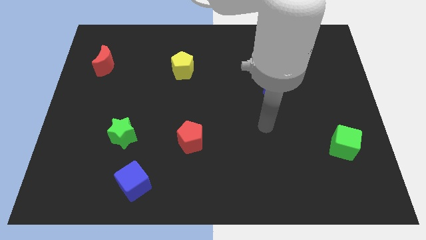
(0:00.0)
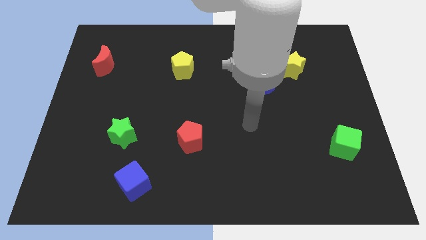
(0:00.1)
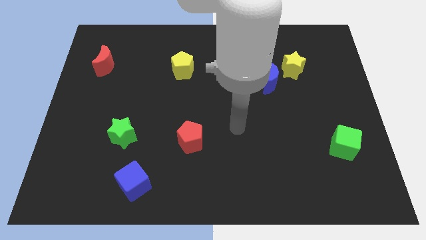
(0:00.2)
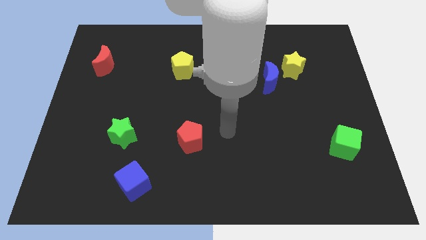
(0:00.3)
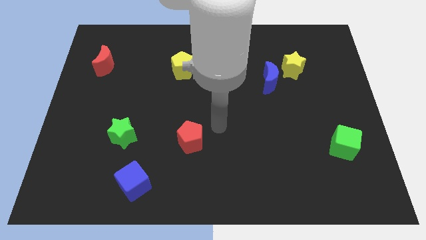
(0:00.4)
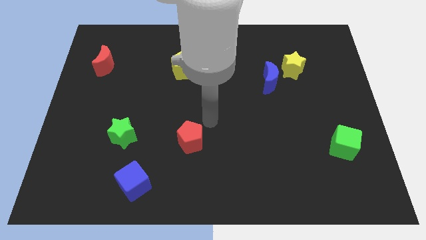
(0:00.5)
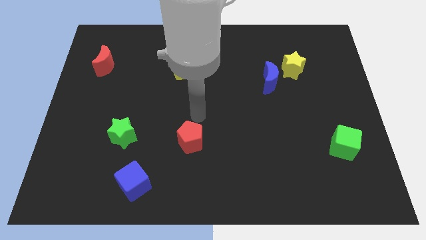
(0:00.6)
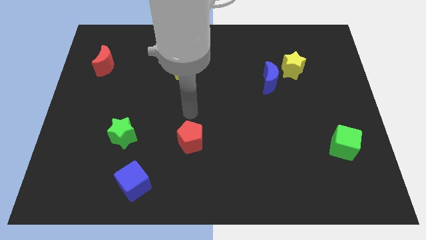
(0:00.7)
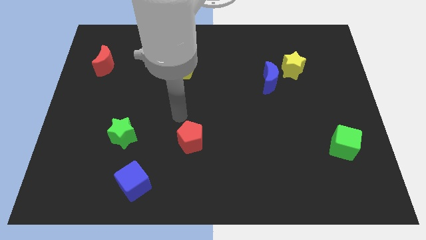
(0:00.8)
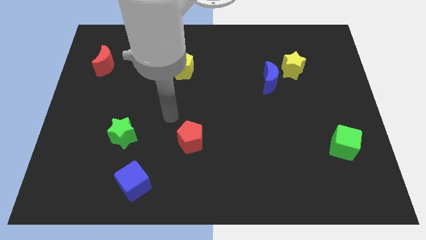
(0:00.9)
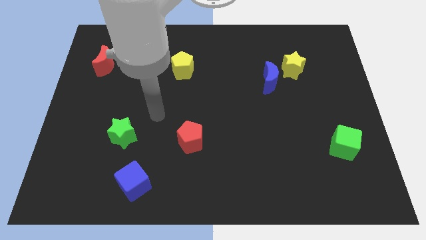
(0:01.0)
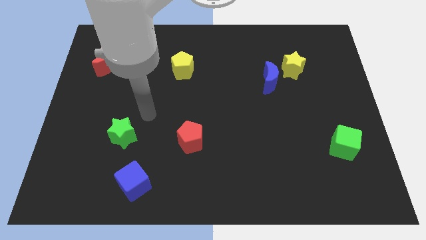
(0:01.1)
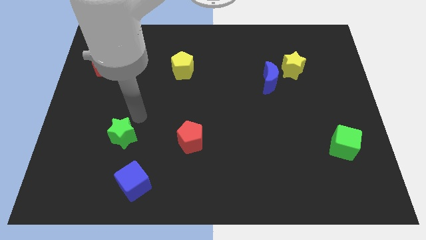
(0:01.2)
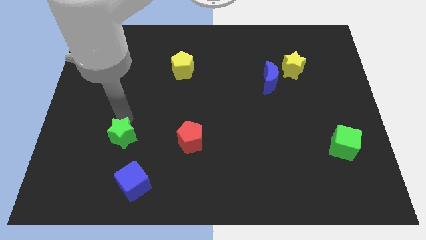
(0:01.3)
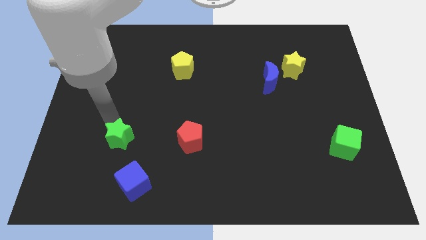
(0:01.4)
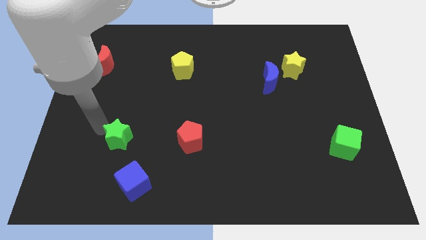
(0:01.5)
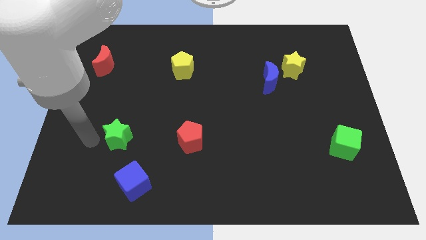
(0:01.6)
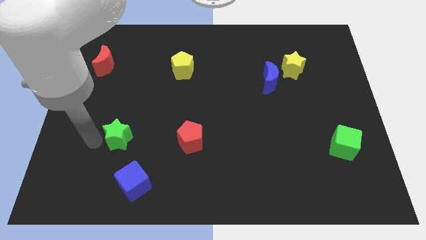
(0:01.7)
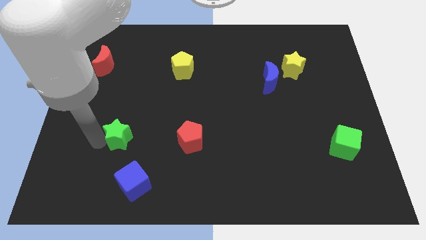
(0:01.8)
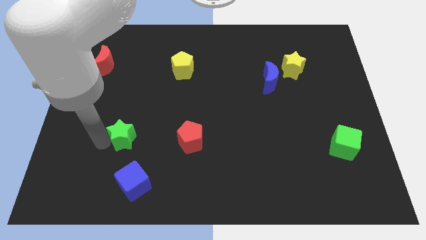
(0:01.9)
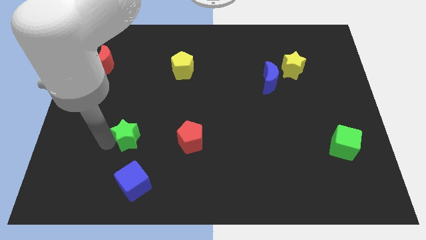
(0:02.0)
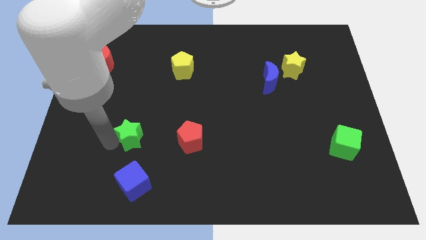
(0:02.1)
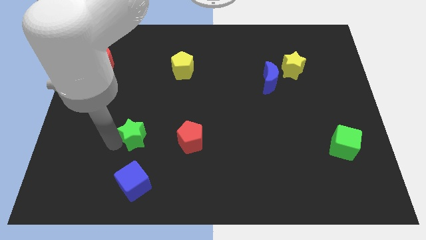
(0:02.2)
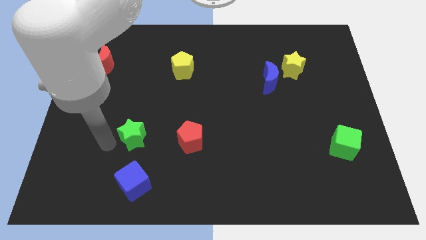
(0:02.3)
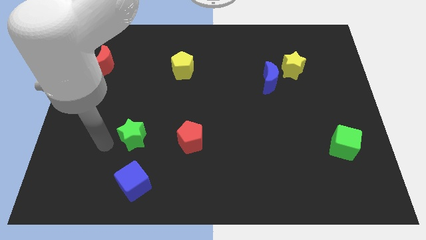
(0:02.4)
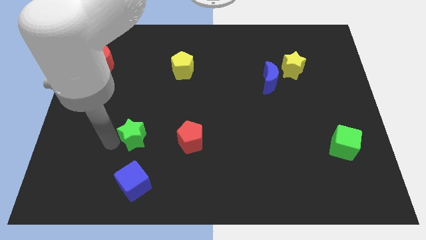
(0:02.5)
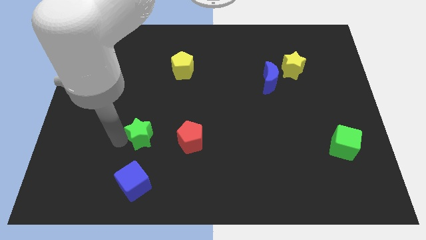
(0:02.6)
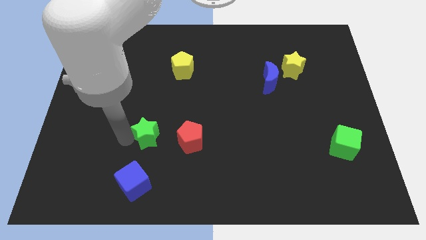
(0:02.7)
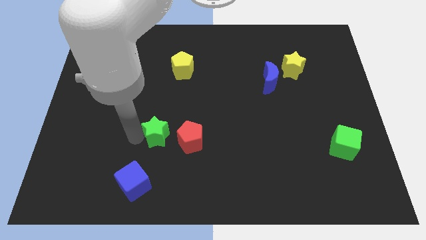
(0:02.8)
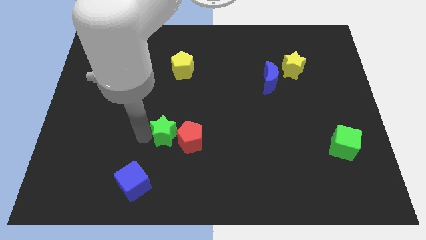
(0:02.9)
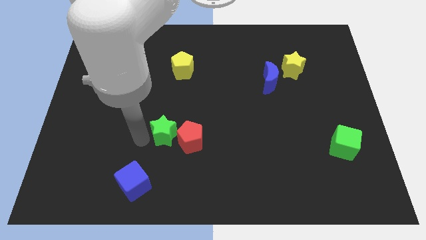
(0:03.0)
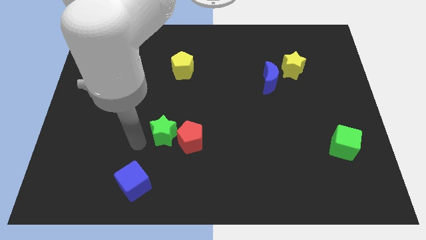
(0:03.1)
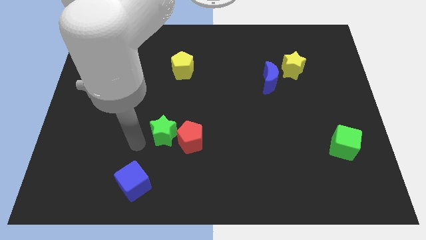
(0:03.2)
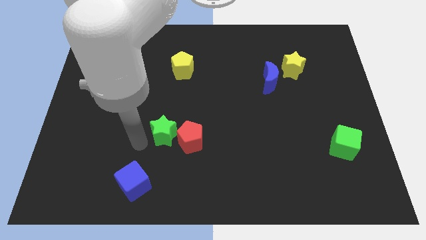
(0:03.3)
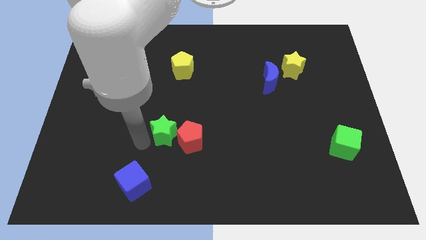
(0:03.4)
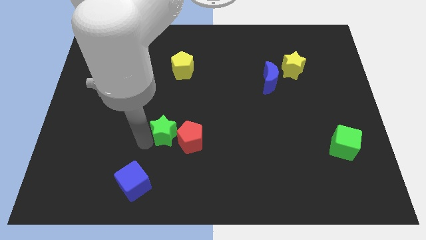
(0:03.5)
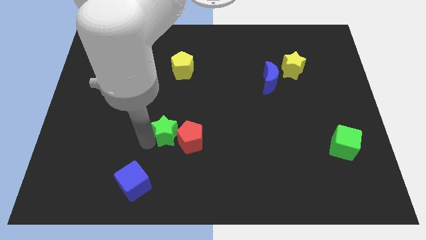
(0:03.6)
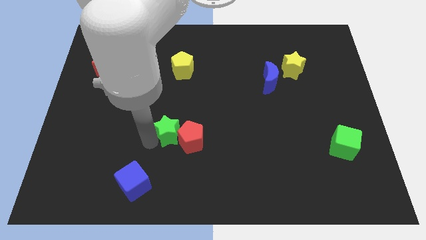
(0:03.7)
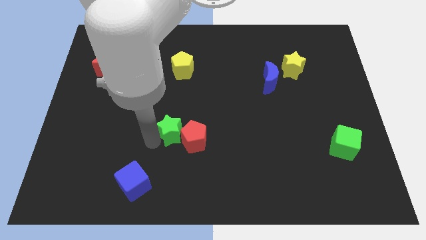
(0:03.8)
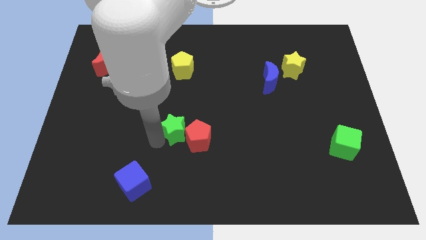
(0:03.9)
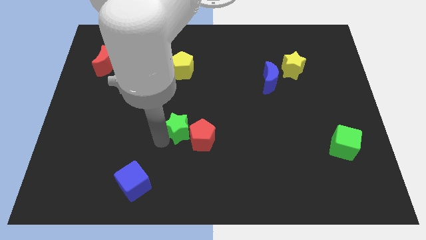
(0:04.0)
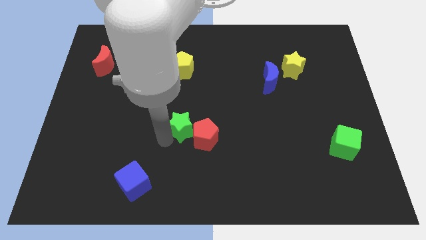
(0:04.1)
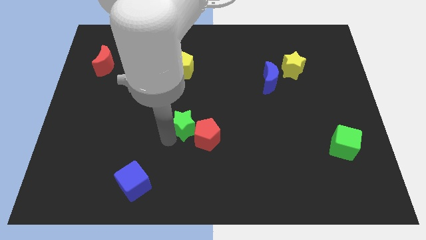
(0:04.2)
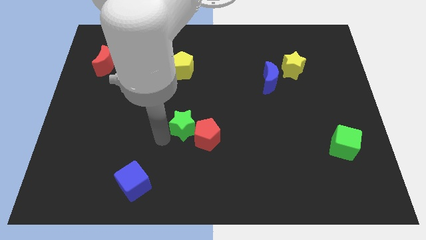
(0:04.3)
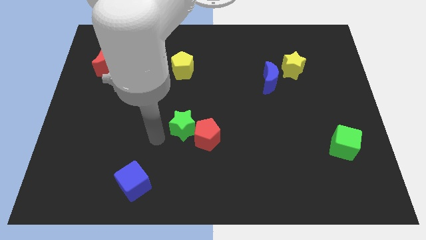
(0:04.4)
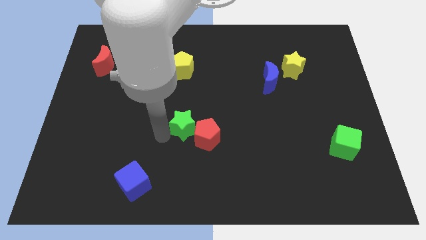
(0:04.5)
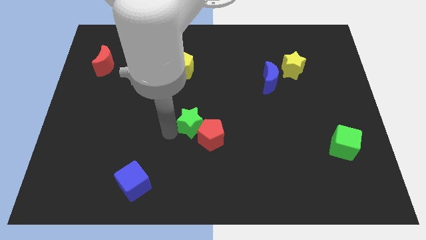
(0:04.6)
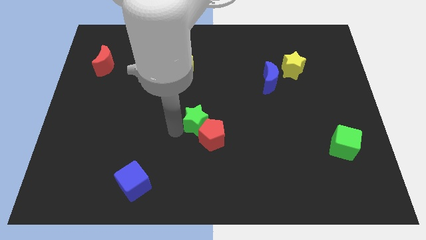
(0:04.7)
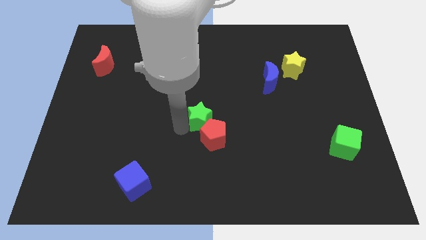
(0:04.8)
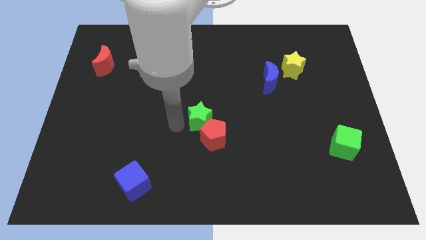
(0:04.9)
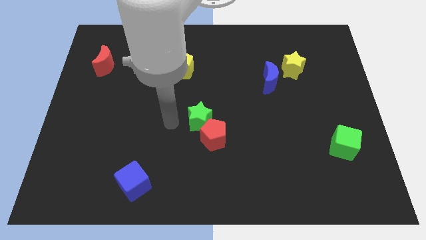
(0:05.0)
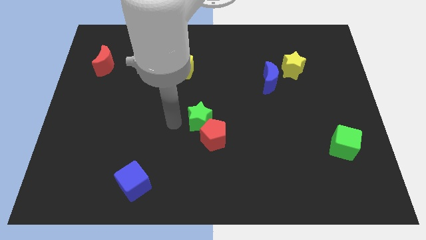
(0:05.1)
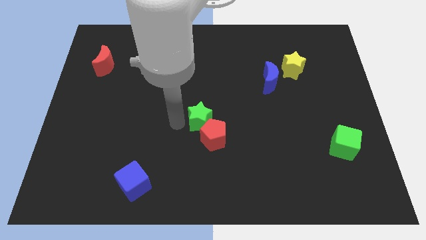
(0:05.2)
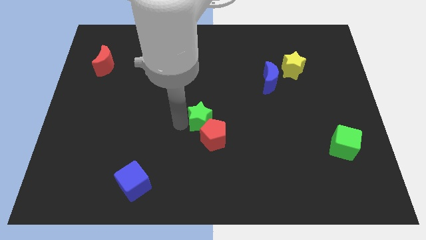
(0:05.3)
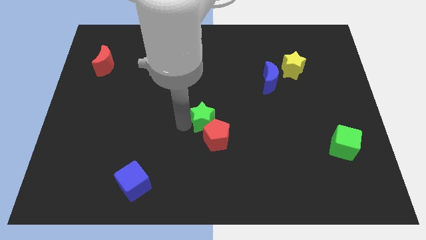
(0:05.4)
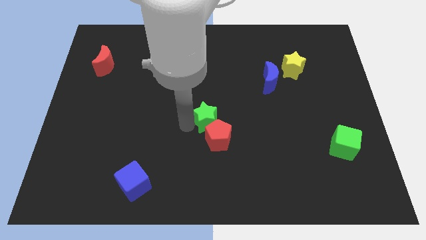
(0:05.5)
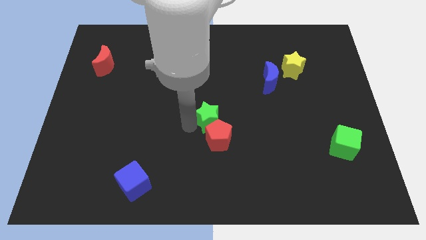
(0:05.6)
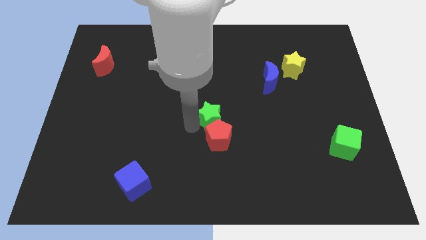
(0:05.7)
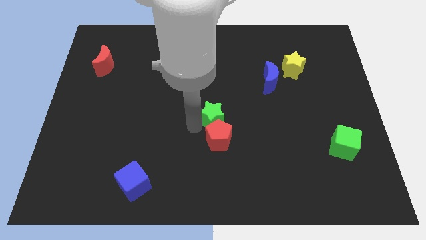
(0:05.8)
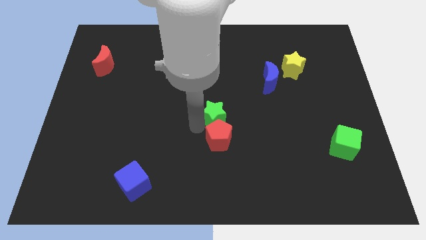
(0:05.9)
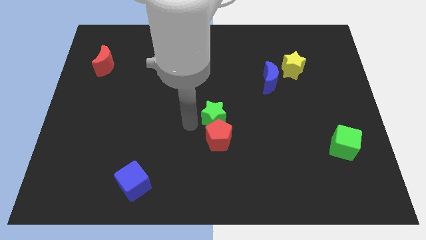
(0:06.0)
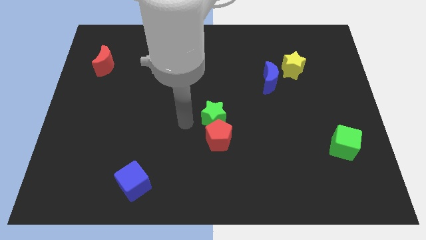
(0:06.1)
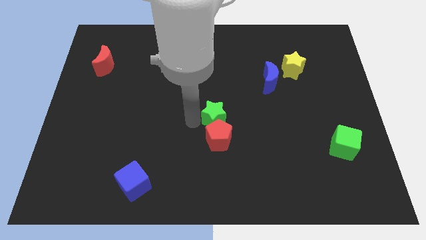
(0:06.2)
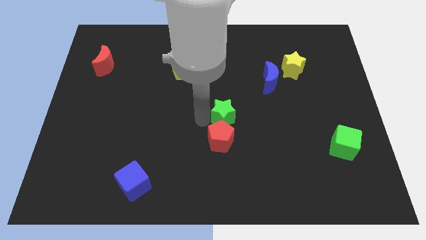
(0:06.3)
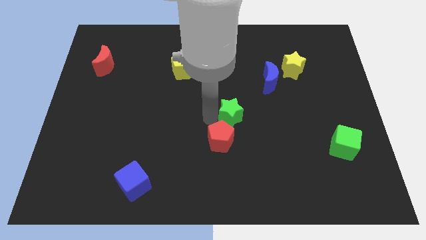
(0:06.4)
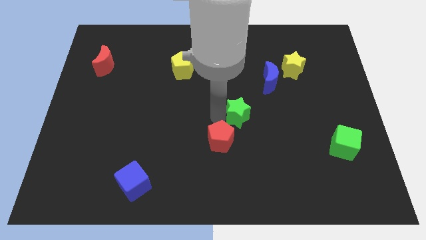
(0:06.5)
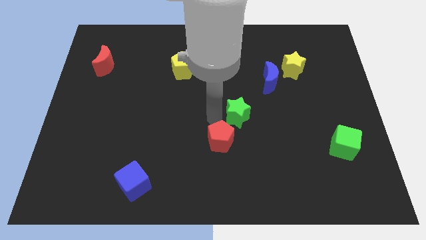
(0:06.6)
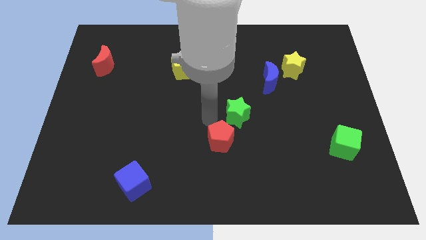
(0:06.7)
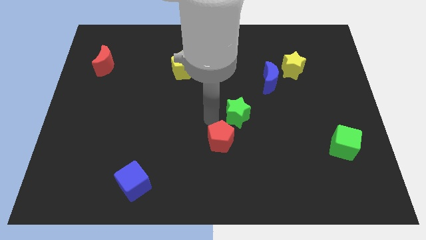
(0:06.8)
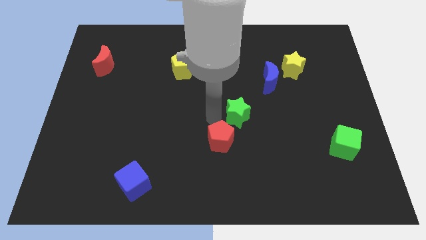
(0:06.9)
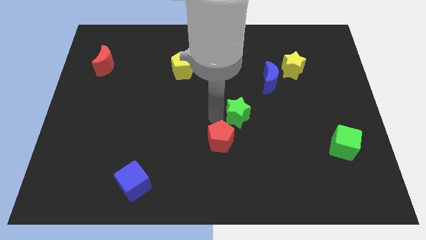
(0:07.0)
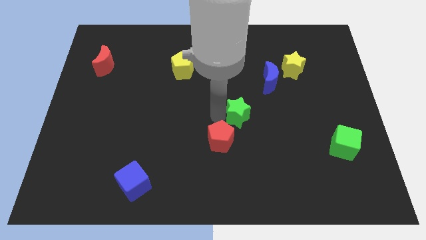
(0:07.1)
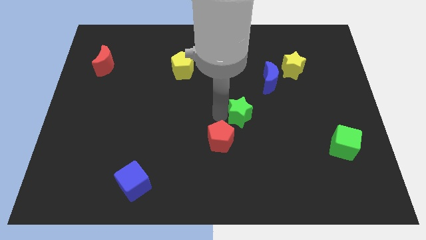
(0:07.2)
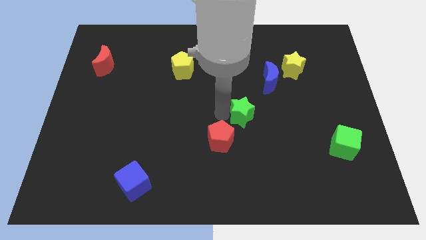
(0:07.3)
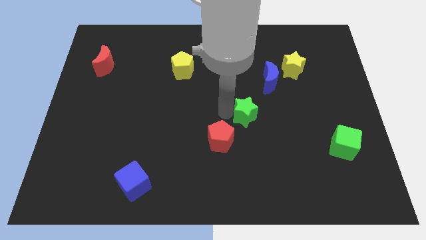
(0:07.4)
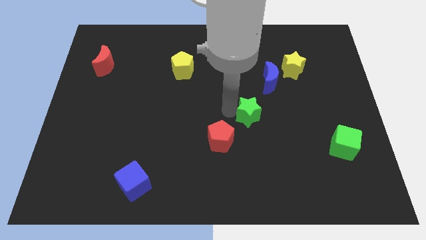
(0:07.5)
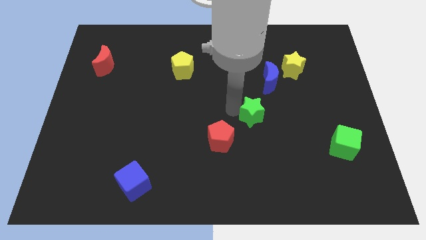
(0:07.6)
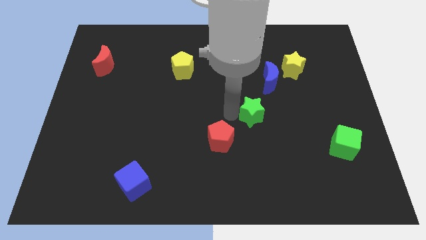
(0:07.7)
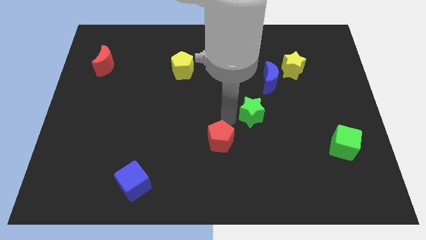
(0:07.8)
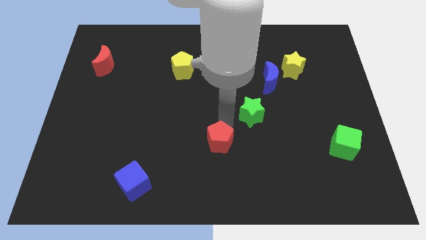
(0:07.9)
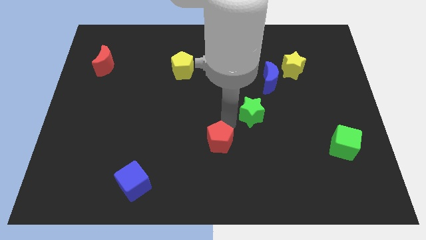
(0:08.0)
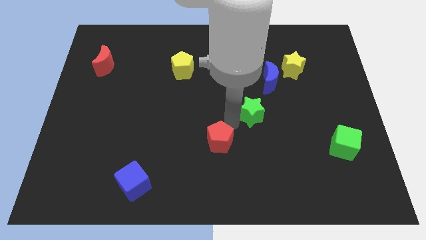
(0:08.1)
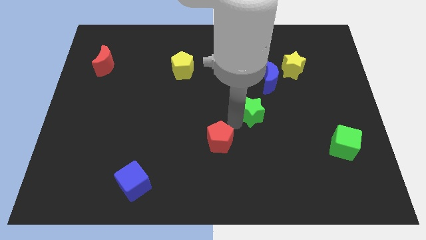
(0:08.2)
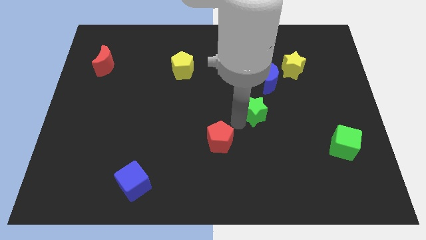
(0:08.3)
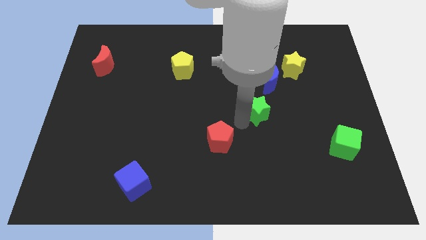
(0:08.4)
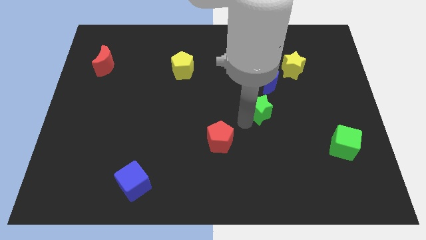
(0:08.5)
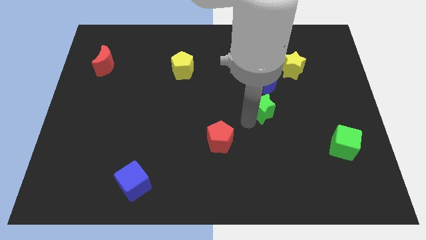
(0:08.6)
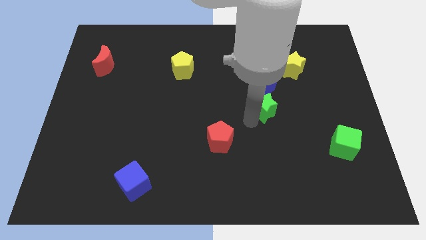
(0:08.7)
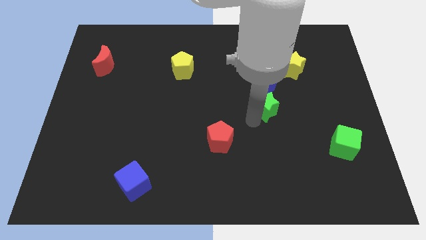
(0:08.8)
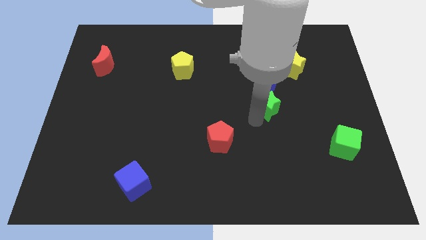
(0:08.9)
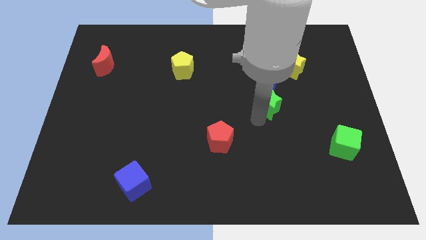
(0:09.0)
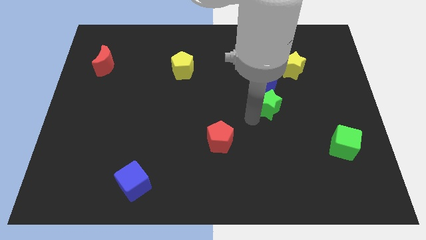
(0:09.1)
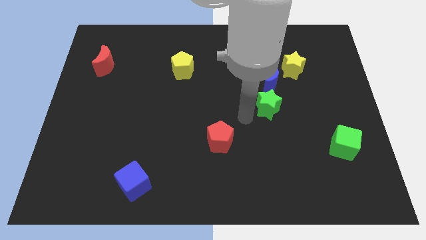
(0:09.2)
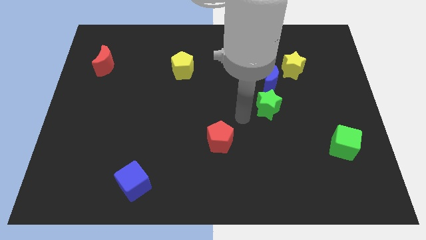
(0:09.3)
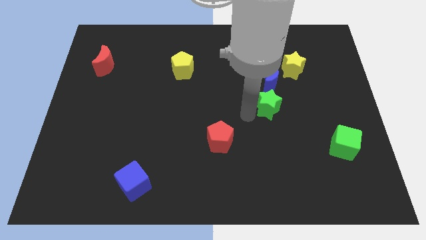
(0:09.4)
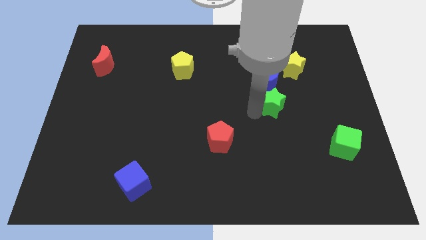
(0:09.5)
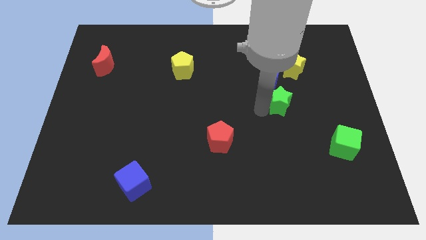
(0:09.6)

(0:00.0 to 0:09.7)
move the green star to the bottom right of the blue moon
